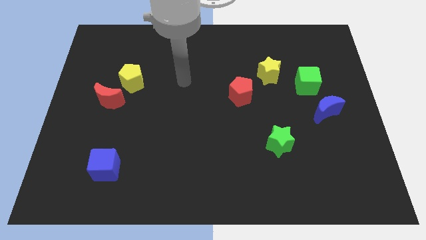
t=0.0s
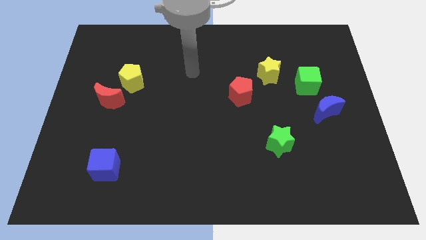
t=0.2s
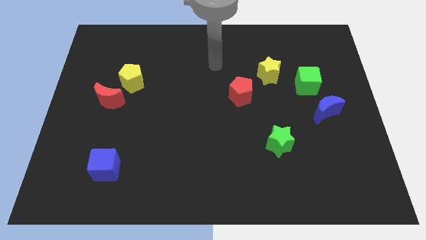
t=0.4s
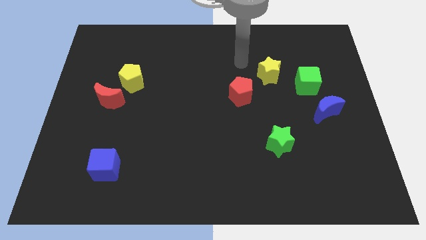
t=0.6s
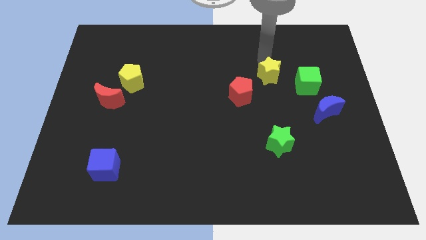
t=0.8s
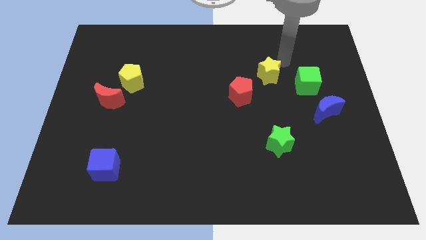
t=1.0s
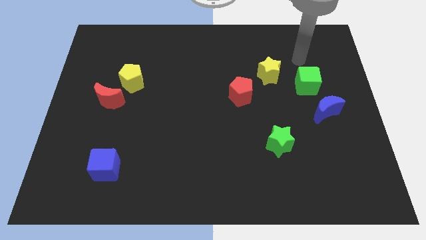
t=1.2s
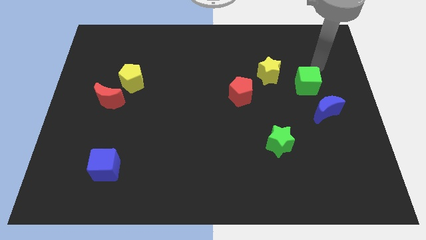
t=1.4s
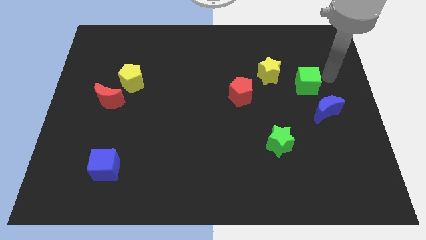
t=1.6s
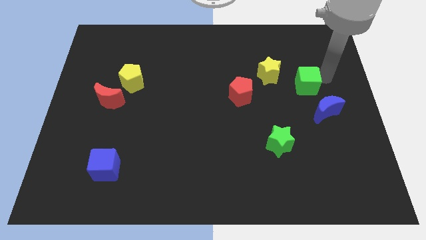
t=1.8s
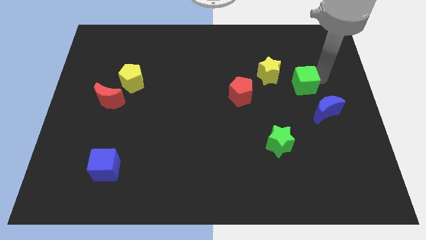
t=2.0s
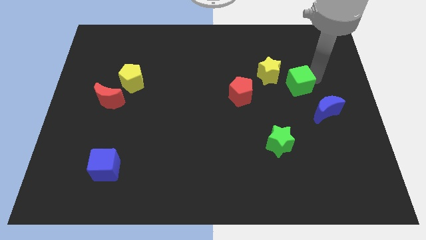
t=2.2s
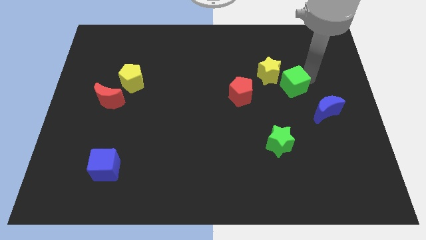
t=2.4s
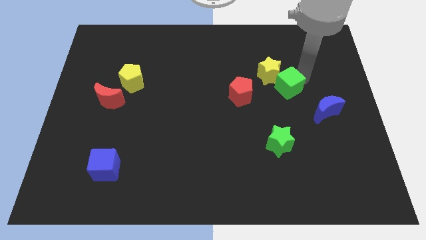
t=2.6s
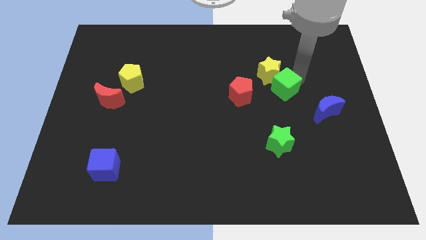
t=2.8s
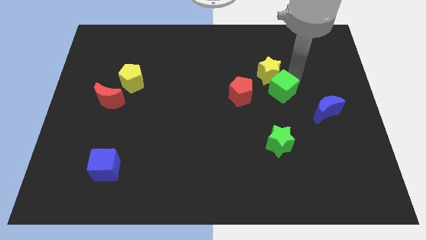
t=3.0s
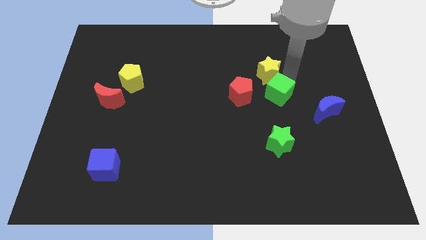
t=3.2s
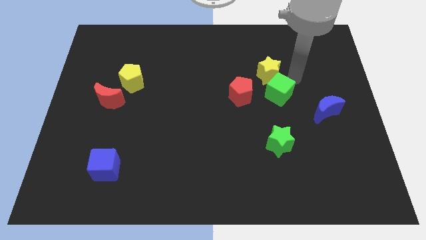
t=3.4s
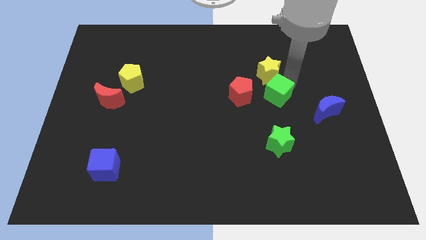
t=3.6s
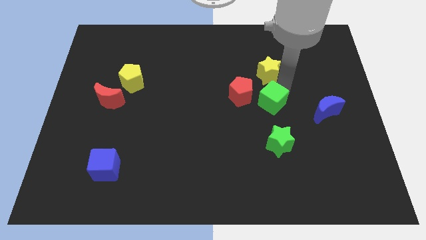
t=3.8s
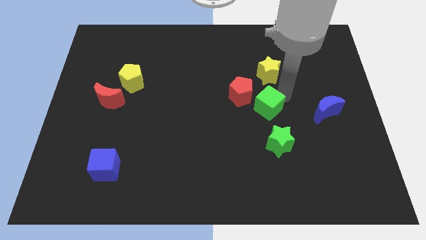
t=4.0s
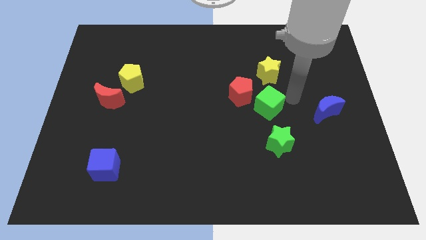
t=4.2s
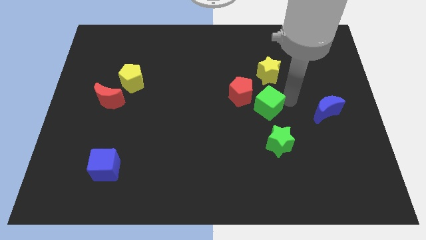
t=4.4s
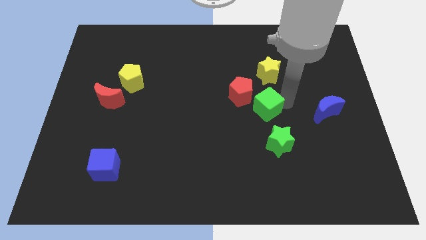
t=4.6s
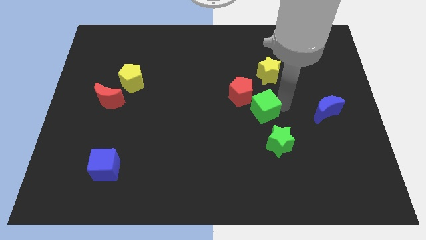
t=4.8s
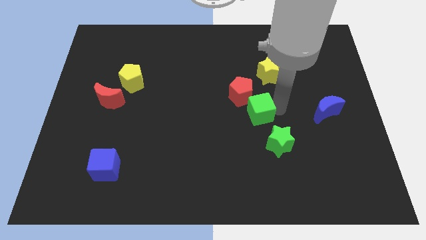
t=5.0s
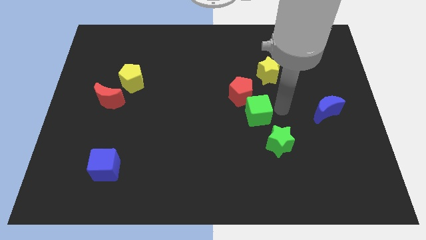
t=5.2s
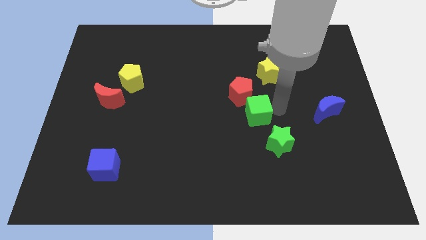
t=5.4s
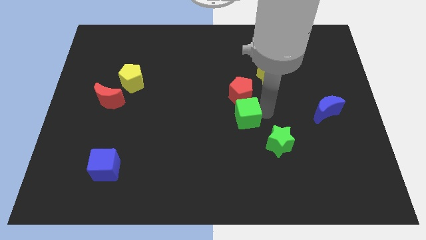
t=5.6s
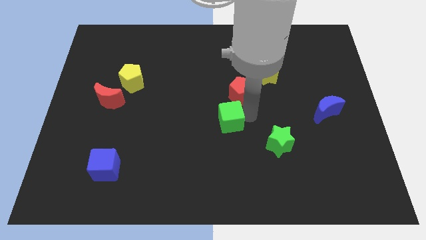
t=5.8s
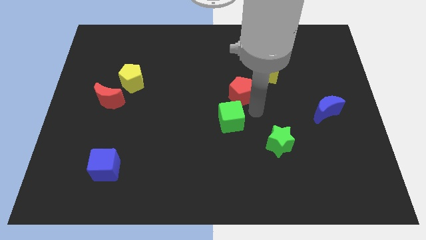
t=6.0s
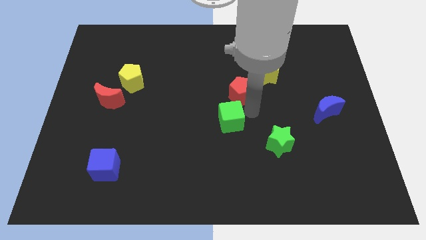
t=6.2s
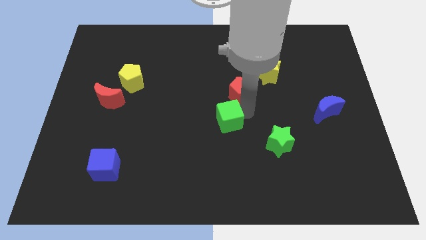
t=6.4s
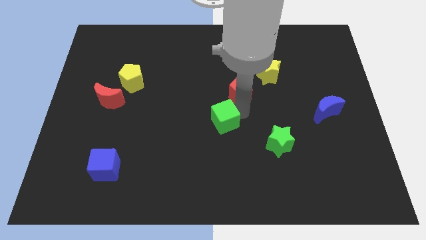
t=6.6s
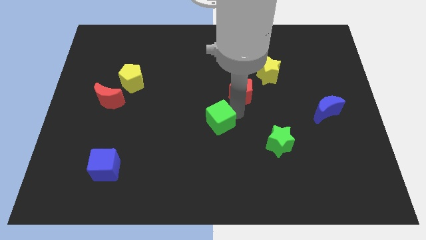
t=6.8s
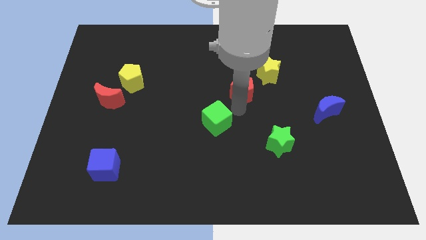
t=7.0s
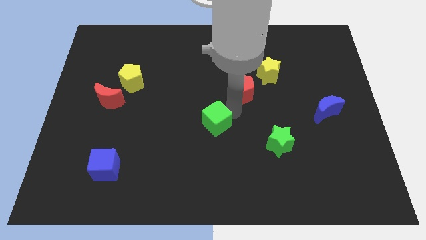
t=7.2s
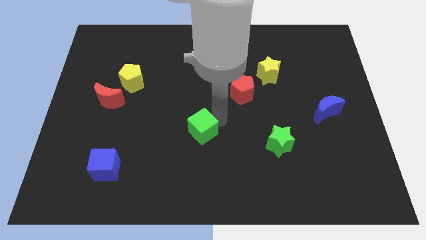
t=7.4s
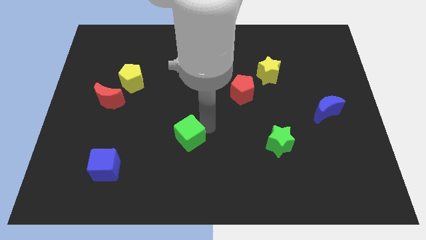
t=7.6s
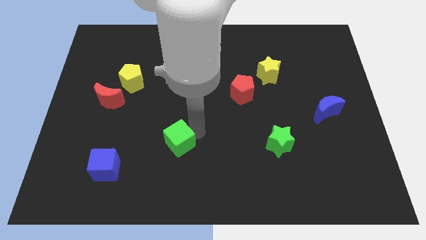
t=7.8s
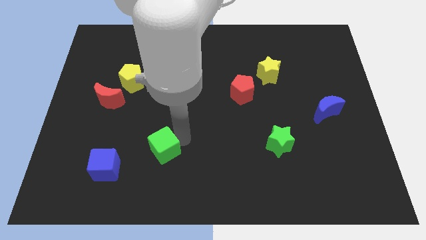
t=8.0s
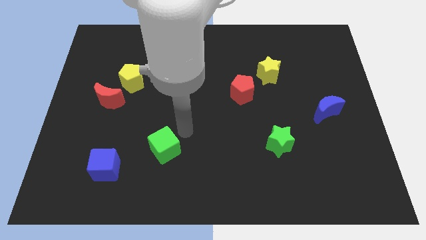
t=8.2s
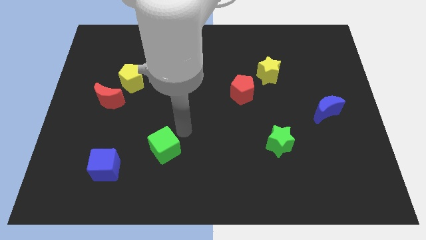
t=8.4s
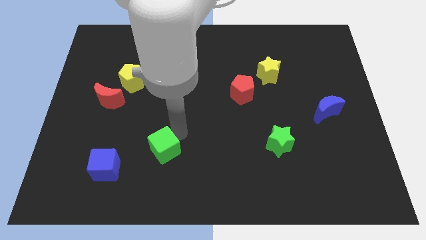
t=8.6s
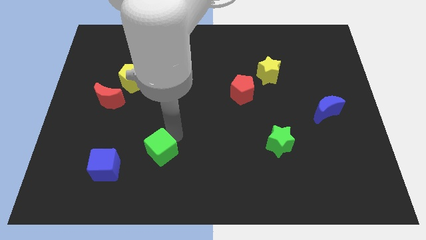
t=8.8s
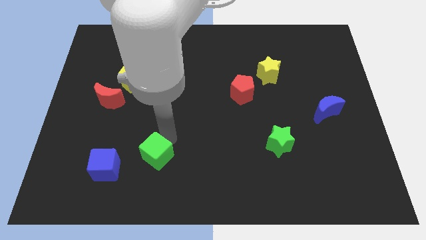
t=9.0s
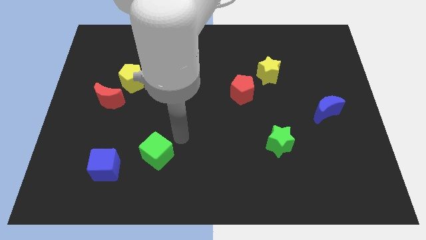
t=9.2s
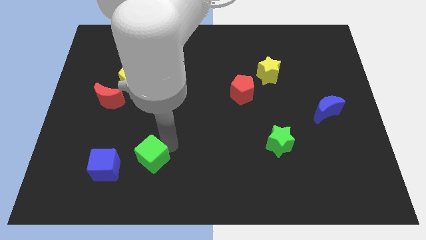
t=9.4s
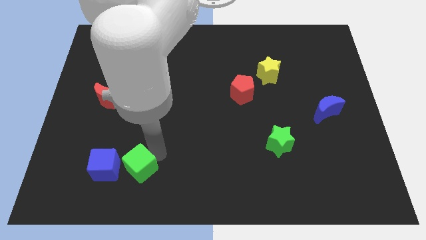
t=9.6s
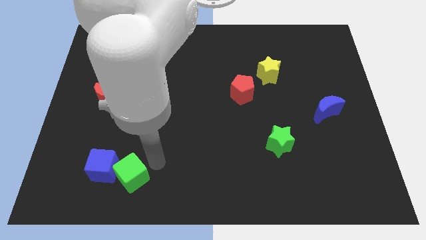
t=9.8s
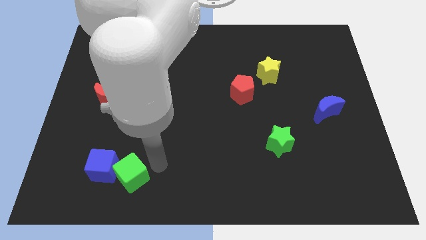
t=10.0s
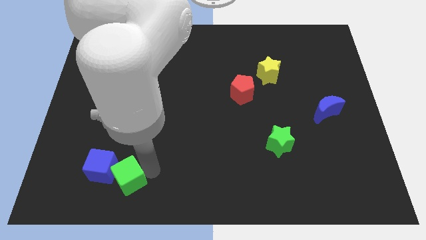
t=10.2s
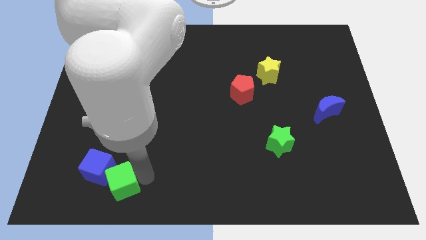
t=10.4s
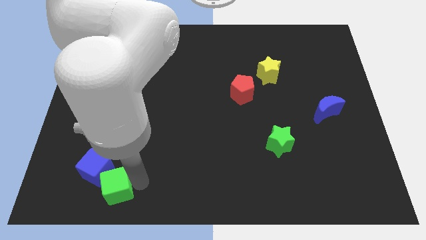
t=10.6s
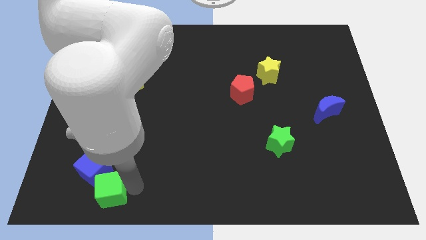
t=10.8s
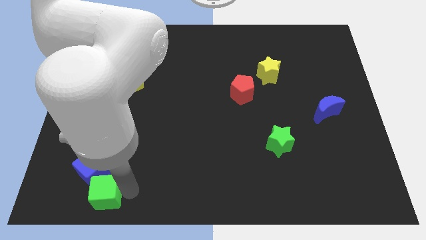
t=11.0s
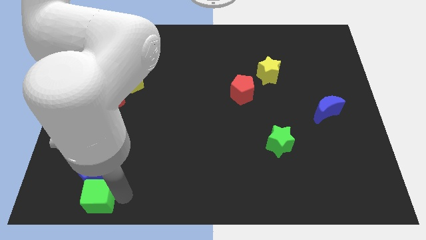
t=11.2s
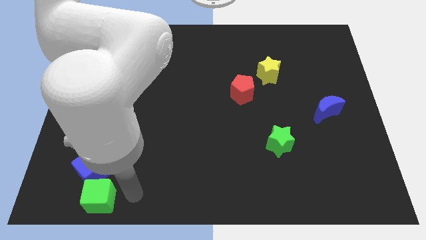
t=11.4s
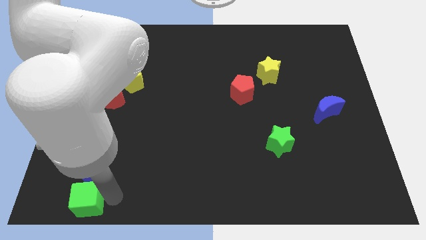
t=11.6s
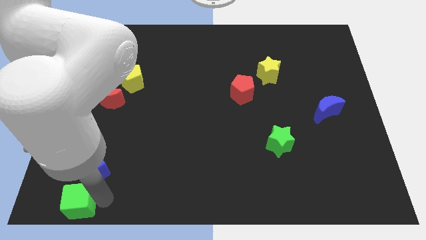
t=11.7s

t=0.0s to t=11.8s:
move the green cube to the bottom left

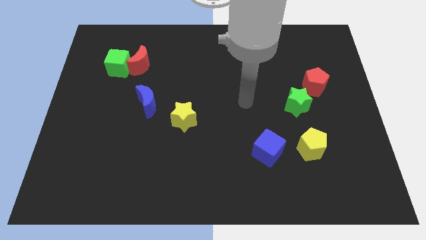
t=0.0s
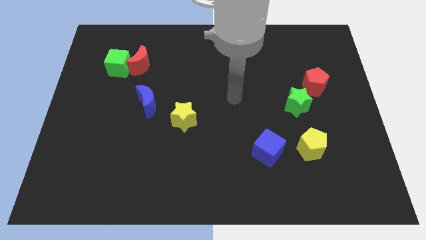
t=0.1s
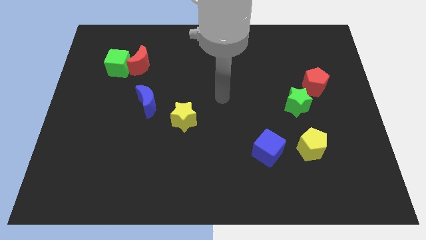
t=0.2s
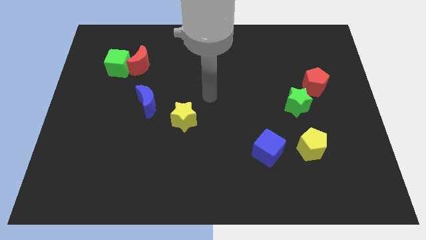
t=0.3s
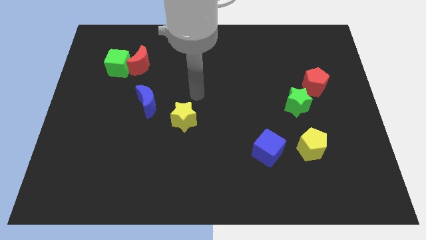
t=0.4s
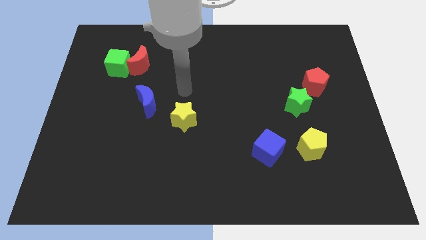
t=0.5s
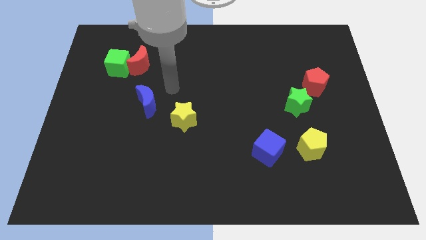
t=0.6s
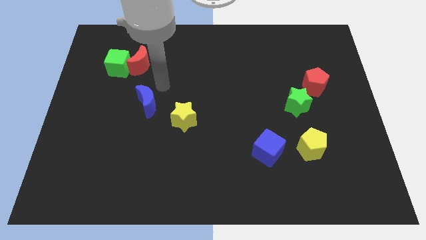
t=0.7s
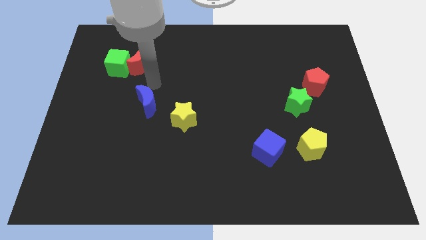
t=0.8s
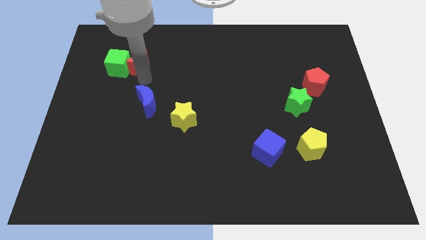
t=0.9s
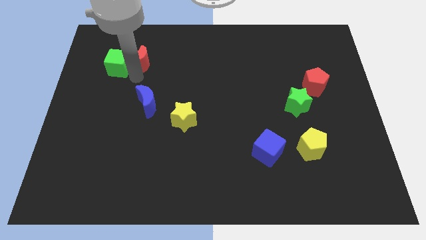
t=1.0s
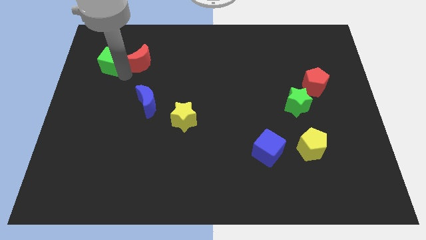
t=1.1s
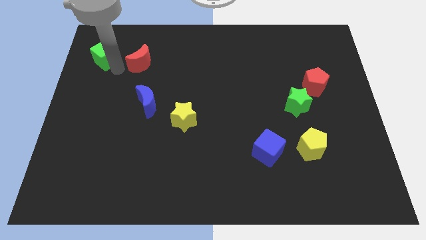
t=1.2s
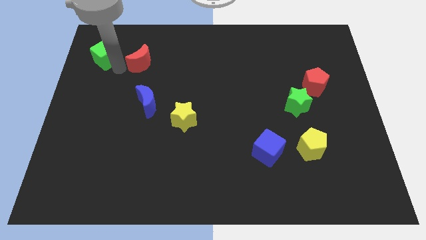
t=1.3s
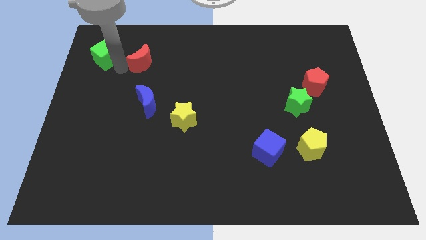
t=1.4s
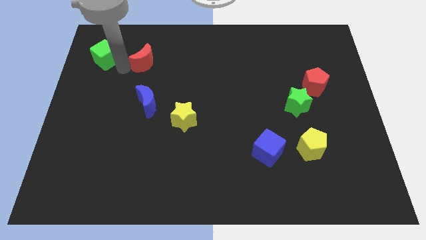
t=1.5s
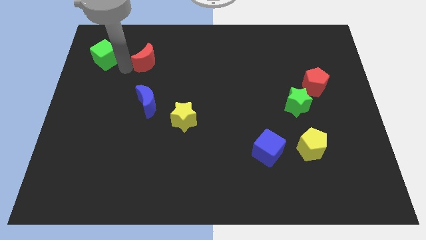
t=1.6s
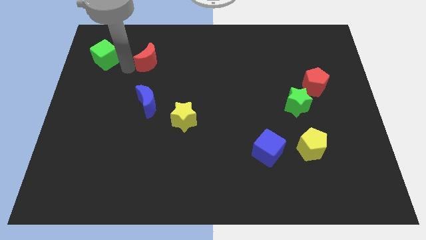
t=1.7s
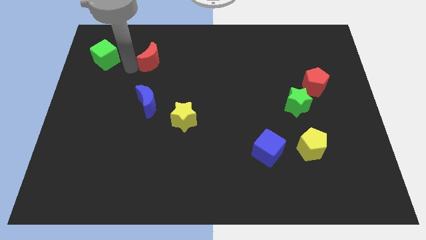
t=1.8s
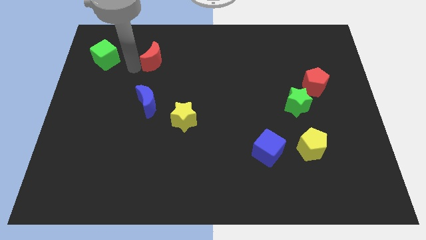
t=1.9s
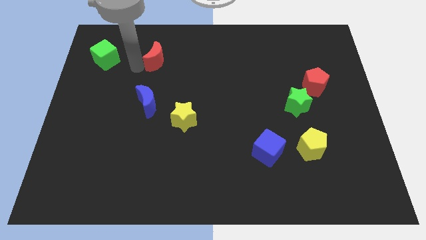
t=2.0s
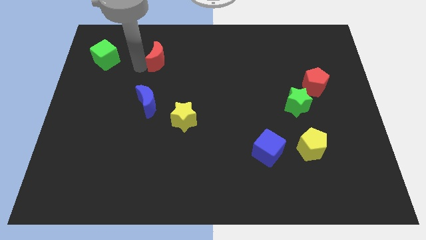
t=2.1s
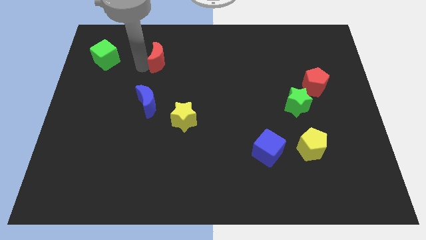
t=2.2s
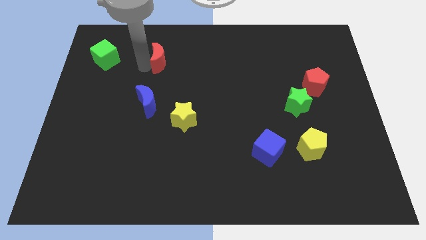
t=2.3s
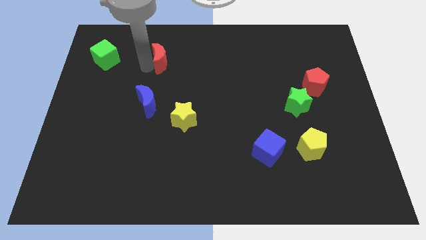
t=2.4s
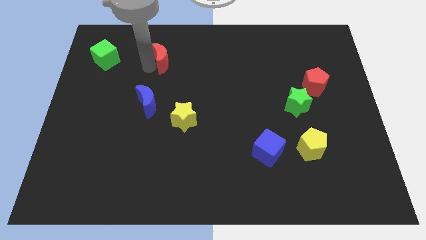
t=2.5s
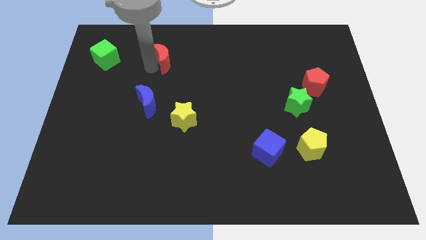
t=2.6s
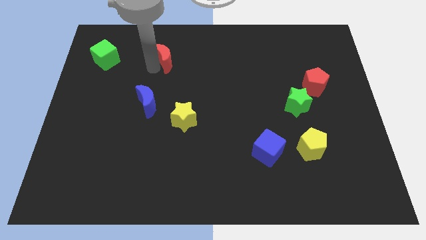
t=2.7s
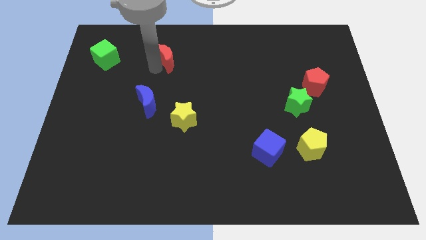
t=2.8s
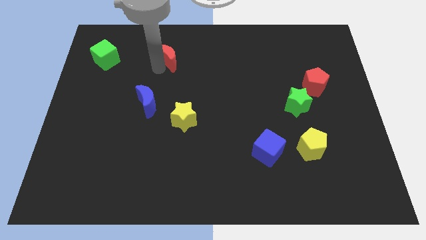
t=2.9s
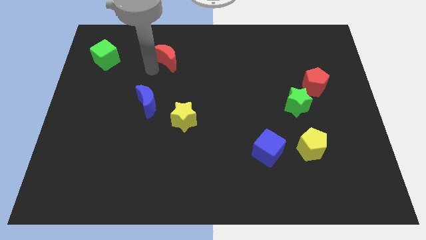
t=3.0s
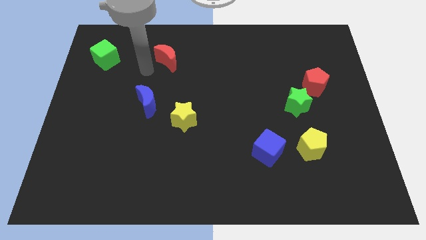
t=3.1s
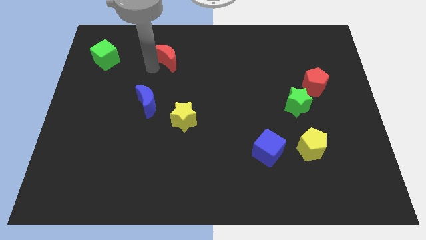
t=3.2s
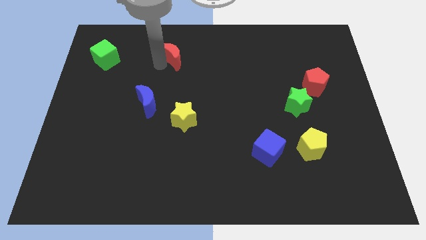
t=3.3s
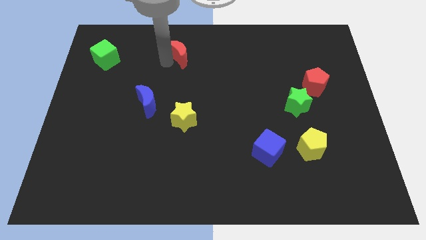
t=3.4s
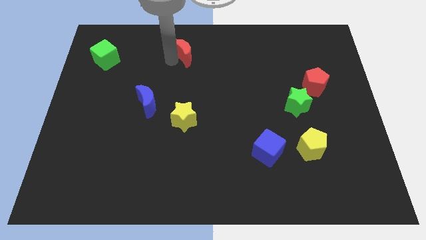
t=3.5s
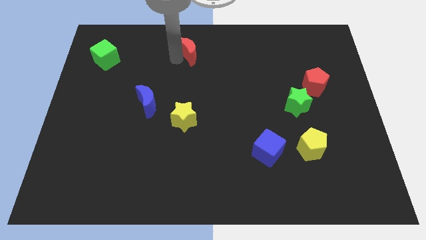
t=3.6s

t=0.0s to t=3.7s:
push the red moon to the top
